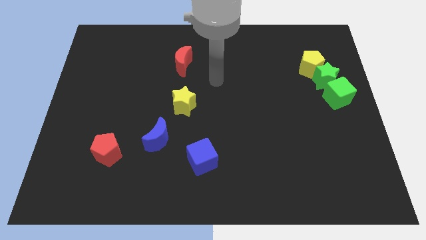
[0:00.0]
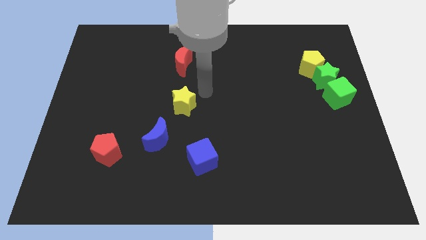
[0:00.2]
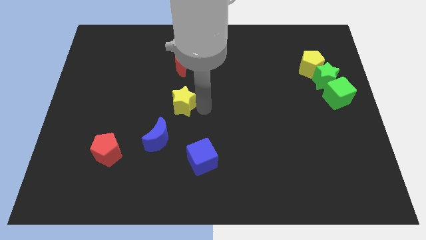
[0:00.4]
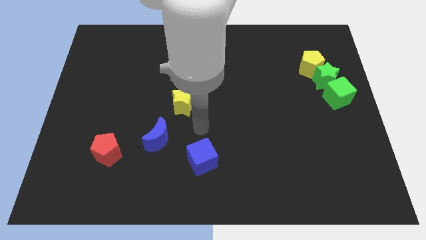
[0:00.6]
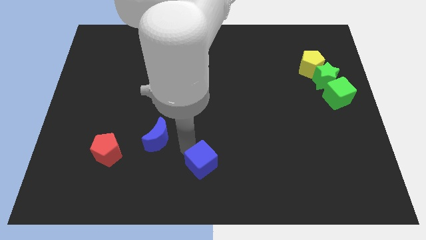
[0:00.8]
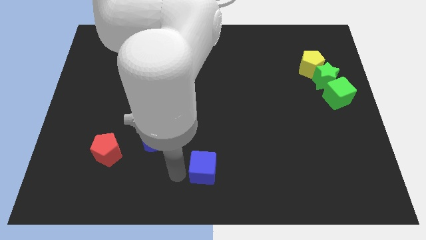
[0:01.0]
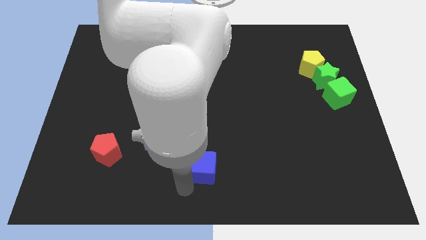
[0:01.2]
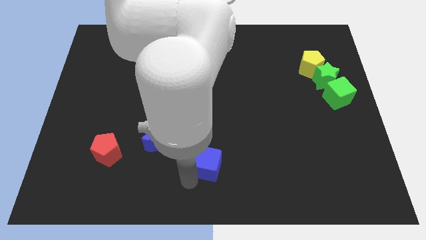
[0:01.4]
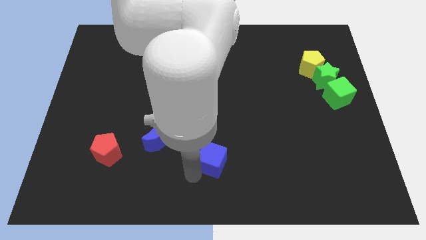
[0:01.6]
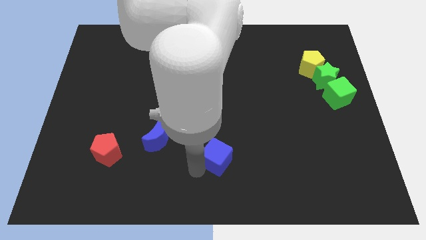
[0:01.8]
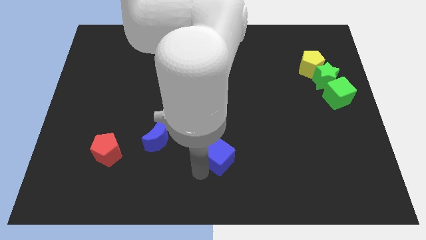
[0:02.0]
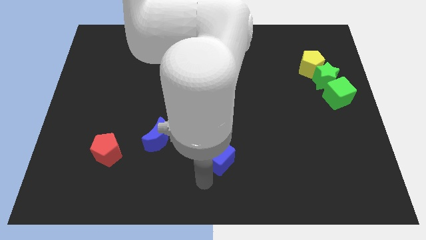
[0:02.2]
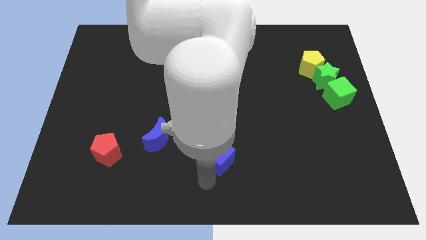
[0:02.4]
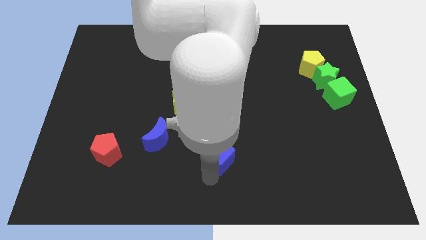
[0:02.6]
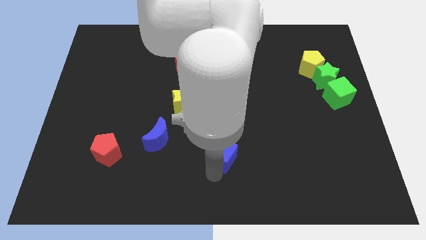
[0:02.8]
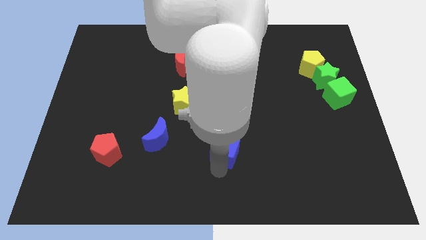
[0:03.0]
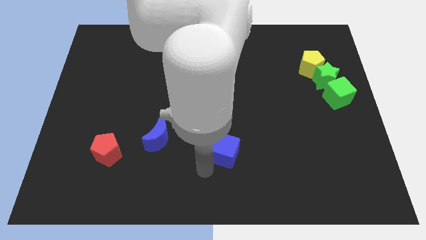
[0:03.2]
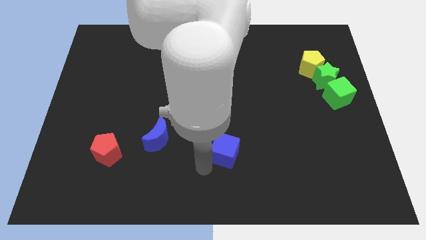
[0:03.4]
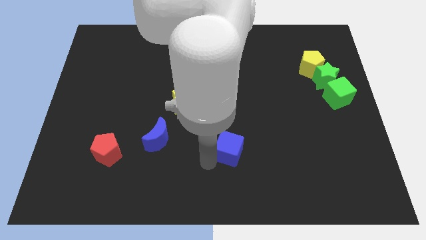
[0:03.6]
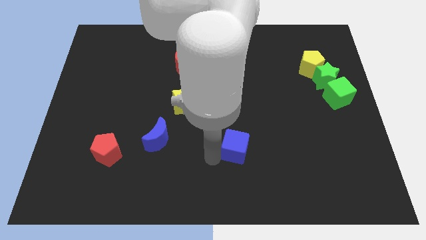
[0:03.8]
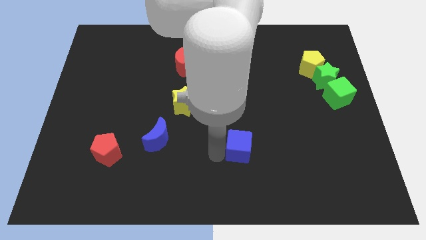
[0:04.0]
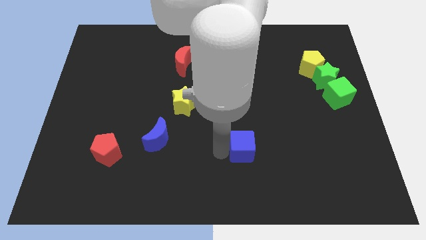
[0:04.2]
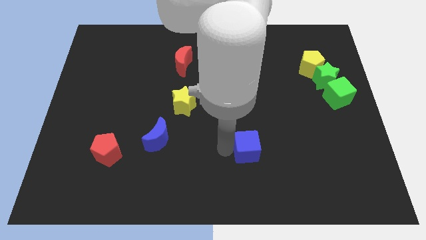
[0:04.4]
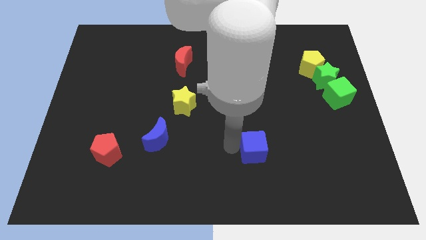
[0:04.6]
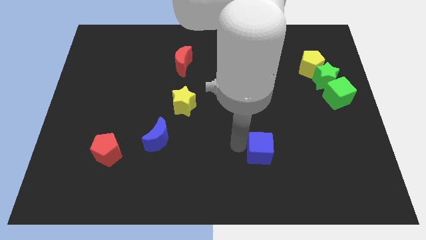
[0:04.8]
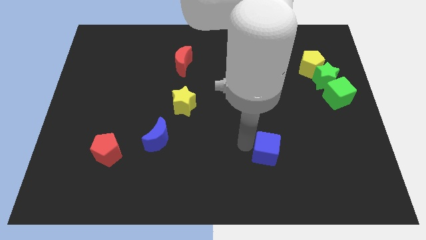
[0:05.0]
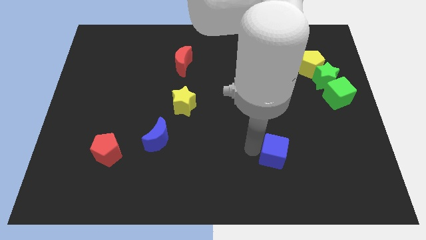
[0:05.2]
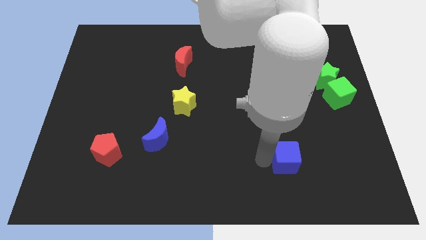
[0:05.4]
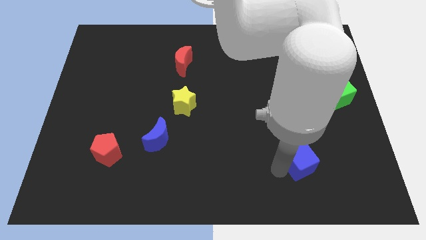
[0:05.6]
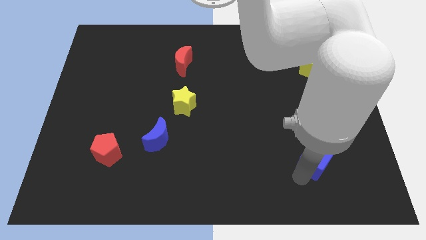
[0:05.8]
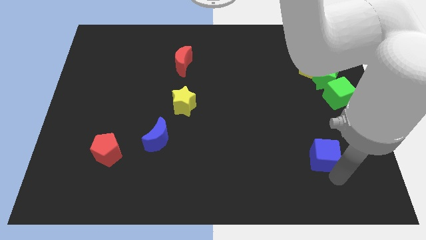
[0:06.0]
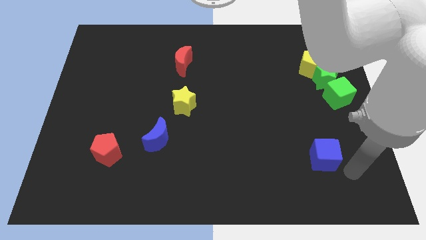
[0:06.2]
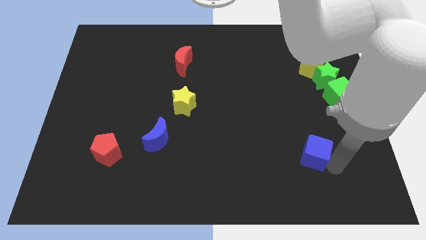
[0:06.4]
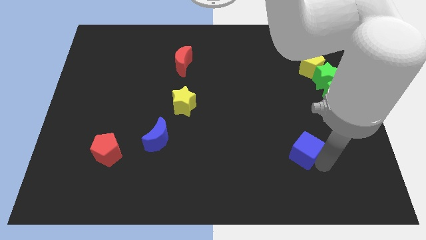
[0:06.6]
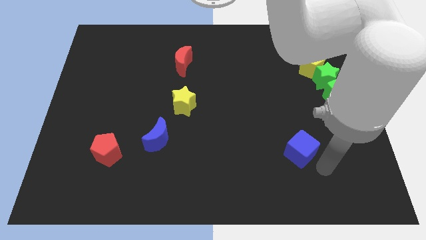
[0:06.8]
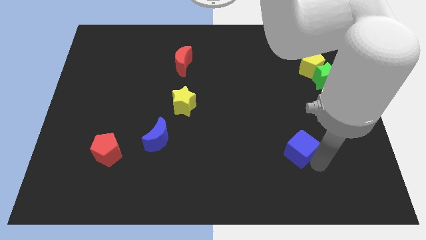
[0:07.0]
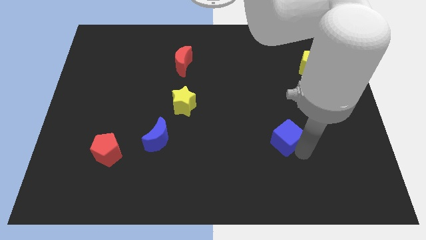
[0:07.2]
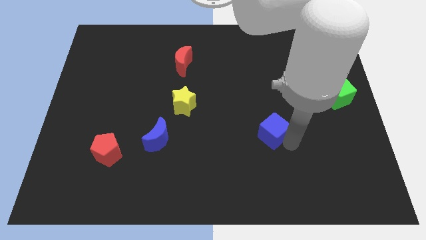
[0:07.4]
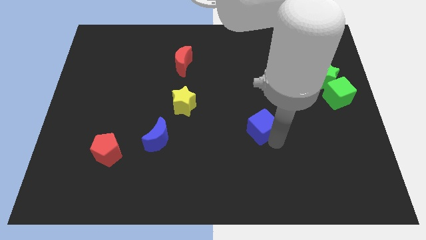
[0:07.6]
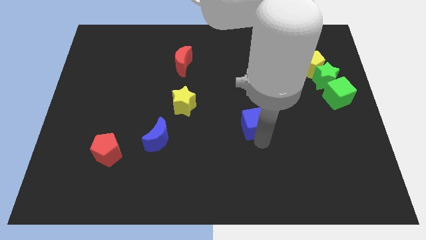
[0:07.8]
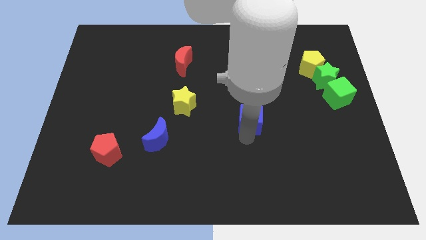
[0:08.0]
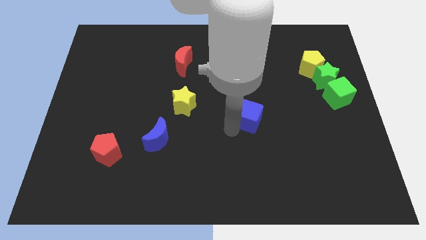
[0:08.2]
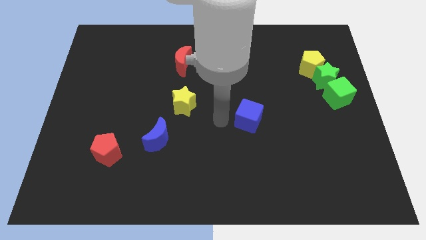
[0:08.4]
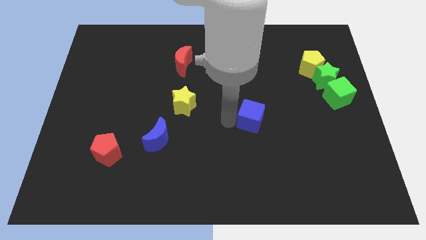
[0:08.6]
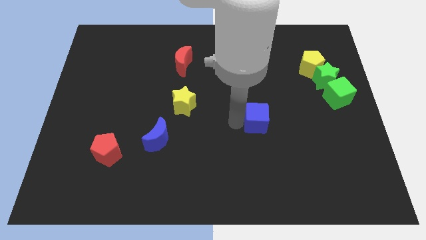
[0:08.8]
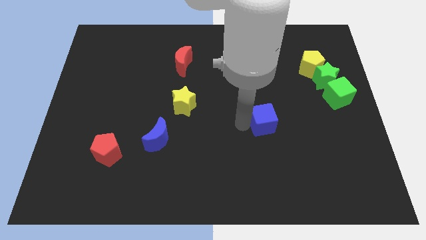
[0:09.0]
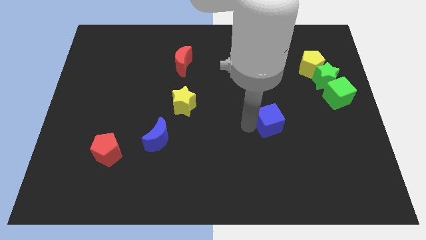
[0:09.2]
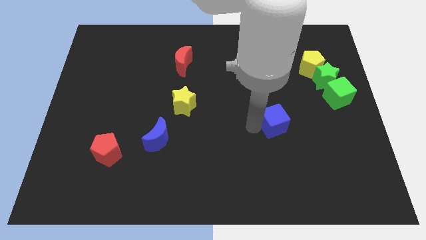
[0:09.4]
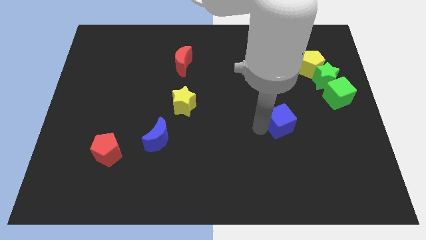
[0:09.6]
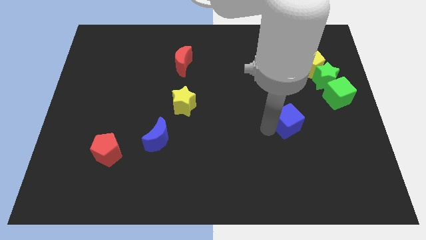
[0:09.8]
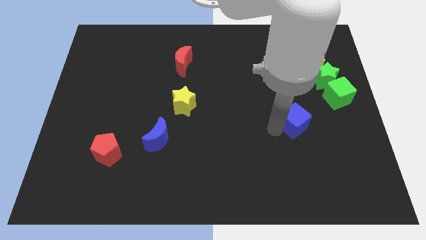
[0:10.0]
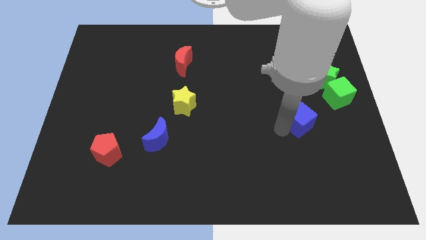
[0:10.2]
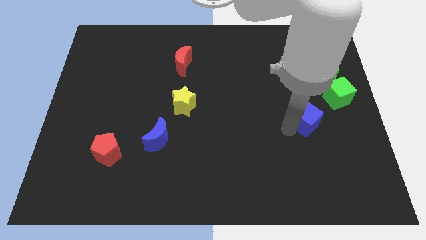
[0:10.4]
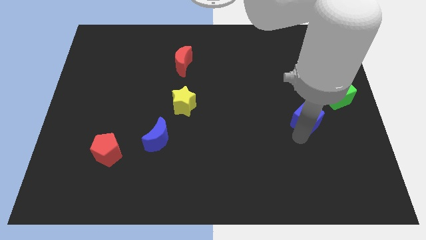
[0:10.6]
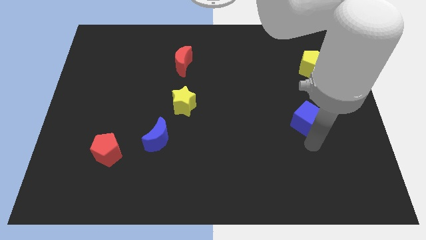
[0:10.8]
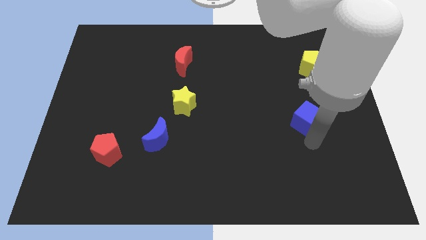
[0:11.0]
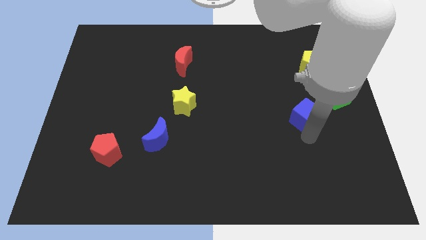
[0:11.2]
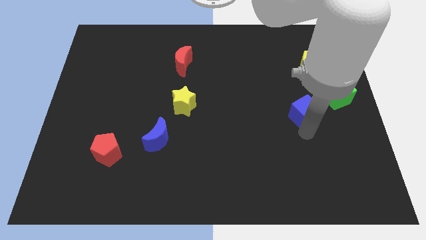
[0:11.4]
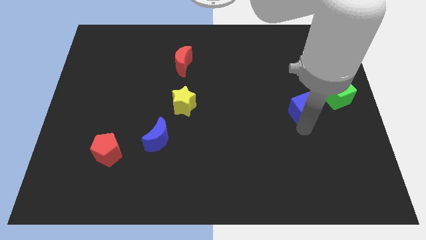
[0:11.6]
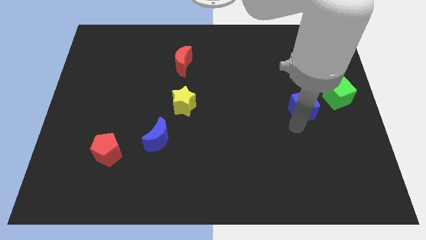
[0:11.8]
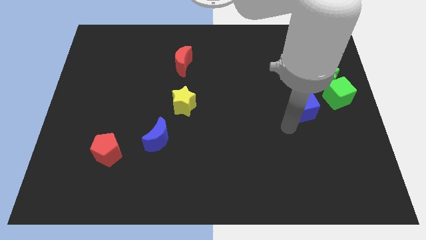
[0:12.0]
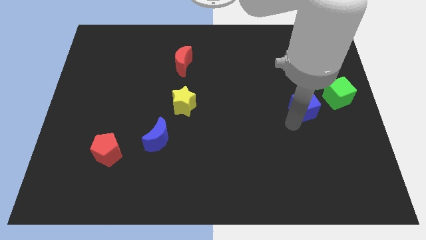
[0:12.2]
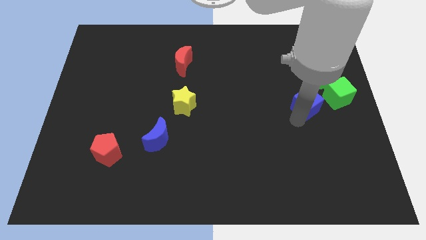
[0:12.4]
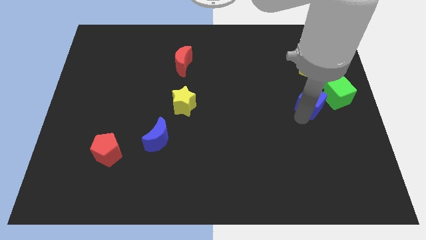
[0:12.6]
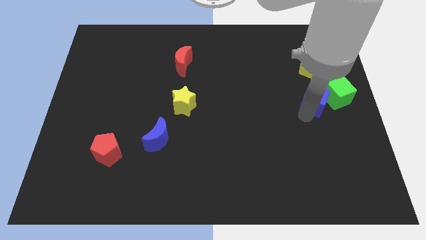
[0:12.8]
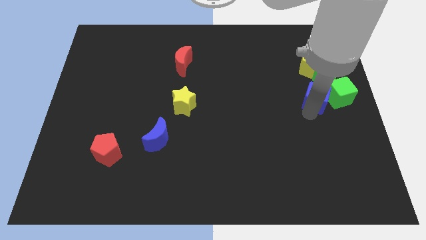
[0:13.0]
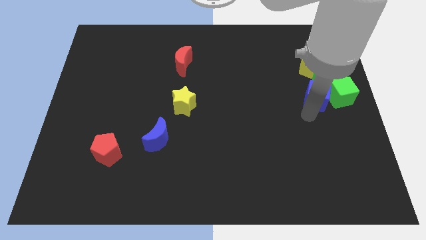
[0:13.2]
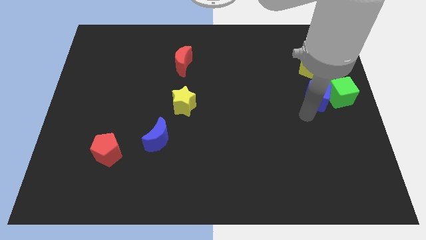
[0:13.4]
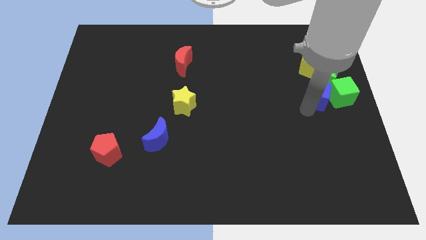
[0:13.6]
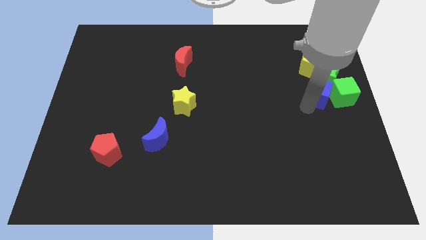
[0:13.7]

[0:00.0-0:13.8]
push the blue cube next to the green star
